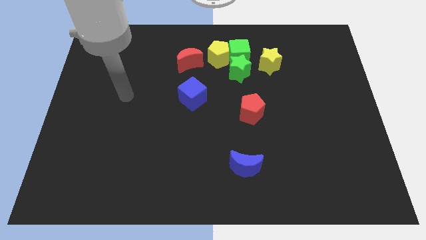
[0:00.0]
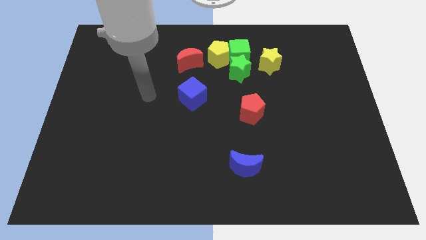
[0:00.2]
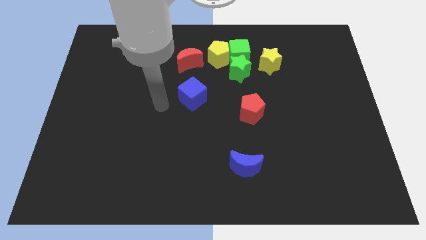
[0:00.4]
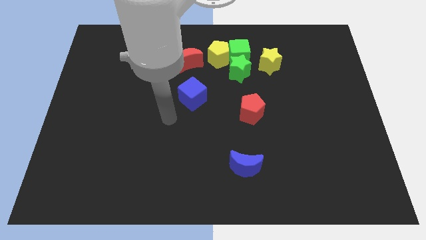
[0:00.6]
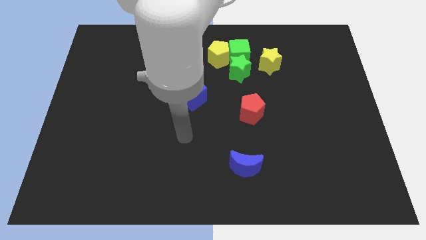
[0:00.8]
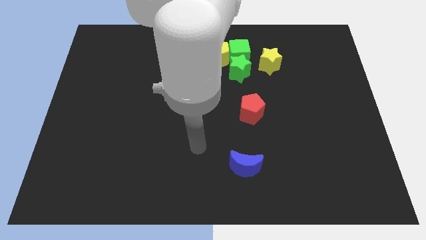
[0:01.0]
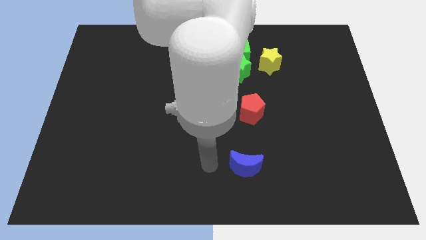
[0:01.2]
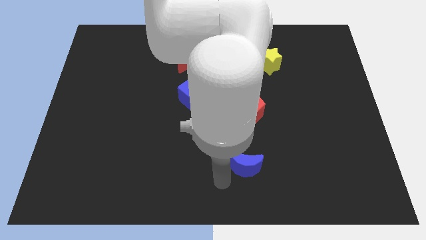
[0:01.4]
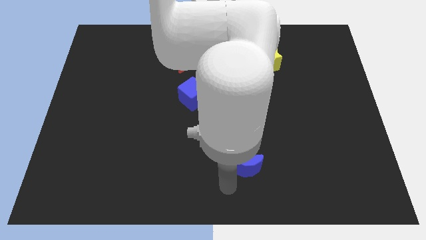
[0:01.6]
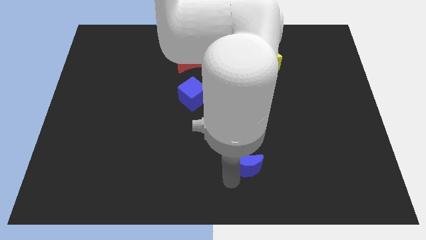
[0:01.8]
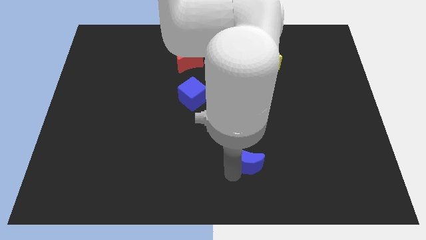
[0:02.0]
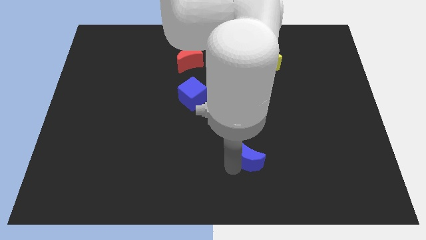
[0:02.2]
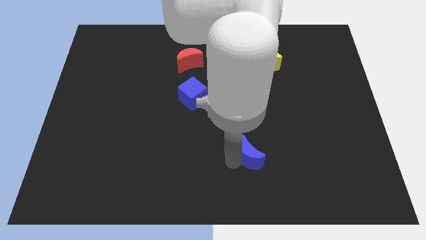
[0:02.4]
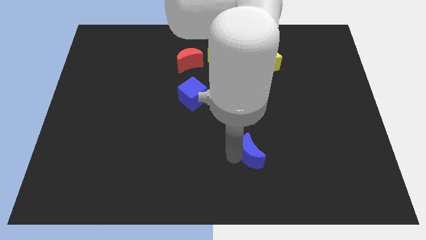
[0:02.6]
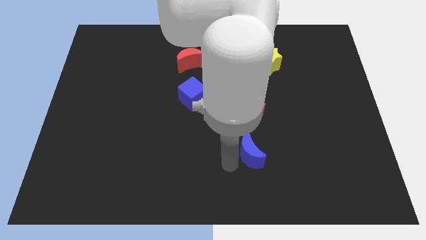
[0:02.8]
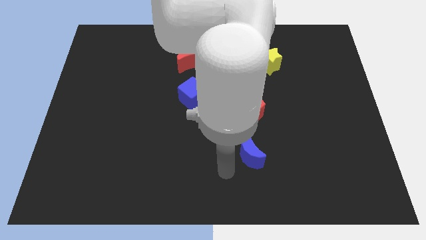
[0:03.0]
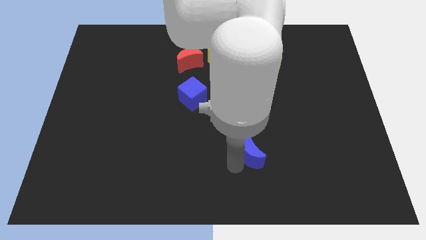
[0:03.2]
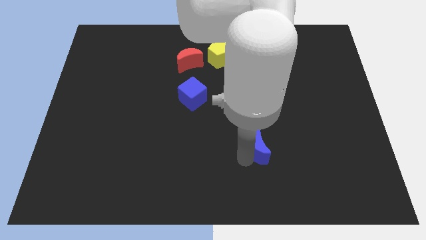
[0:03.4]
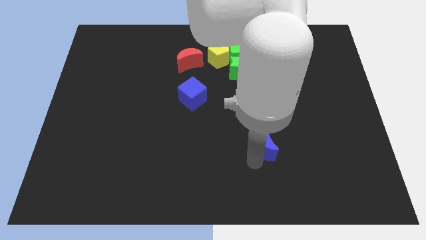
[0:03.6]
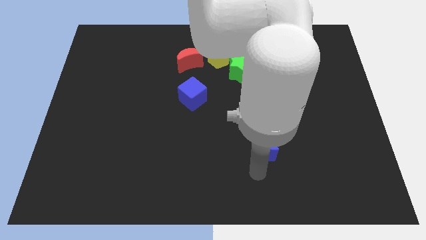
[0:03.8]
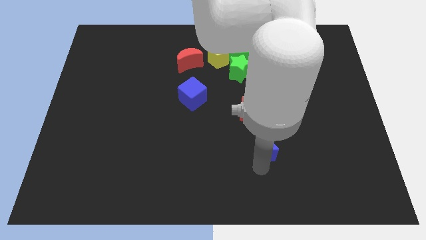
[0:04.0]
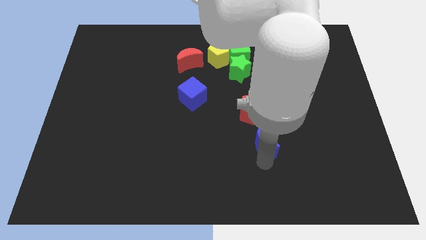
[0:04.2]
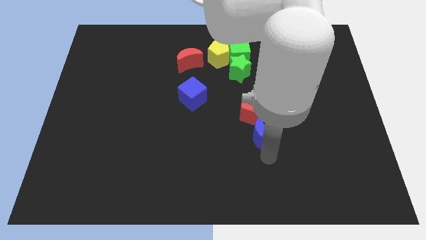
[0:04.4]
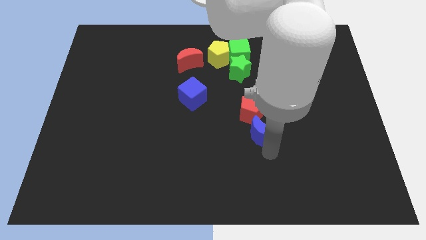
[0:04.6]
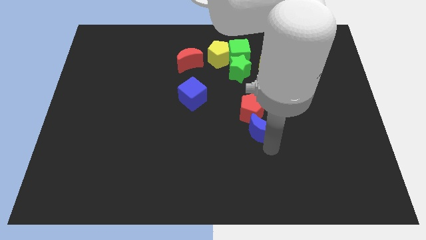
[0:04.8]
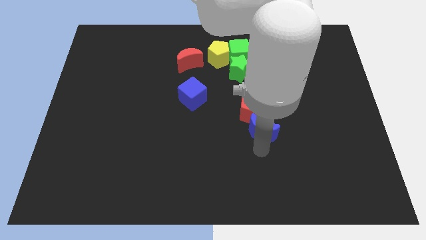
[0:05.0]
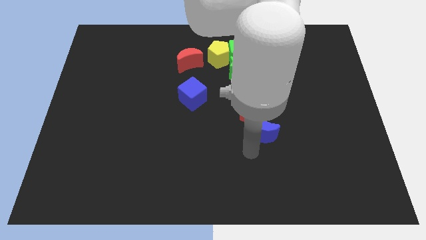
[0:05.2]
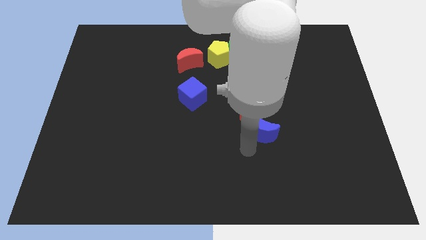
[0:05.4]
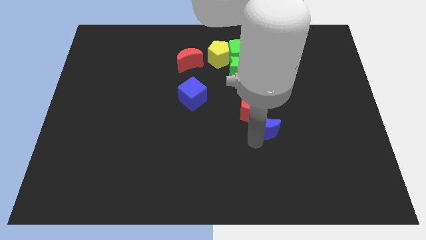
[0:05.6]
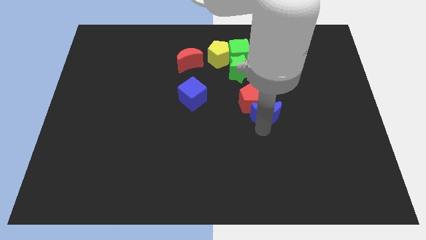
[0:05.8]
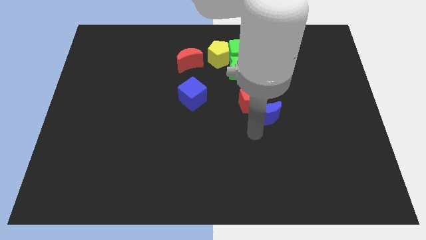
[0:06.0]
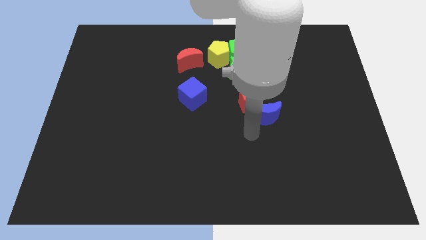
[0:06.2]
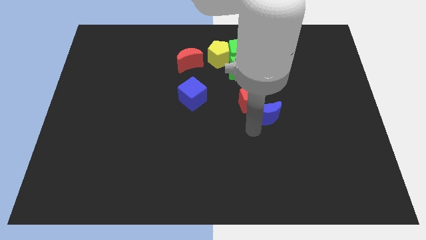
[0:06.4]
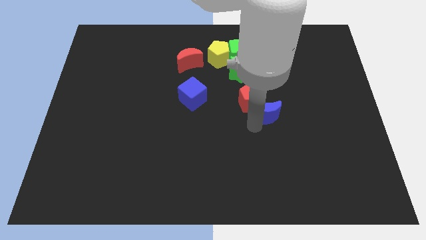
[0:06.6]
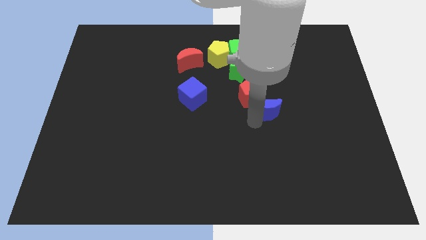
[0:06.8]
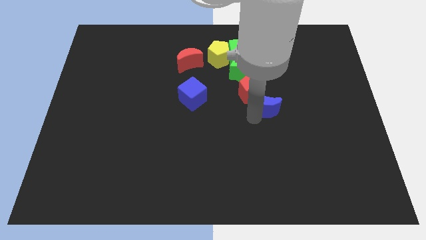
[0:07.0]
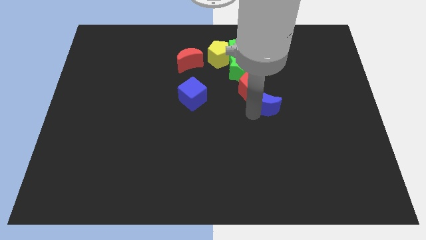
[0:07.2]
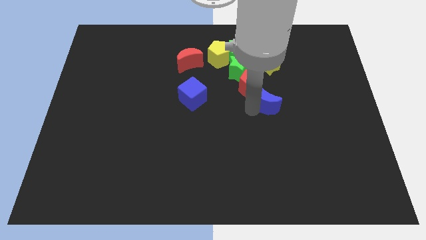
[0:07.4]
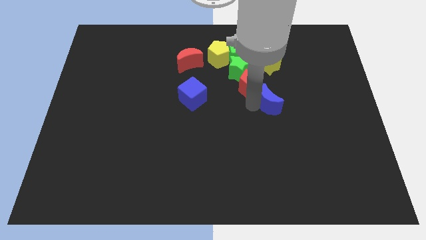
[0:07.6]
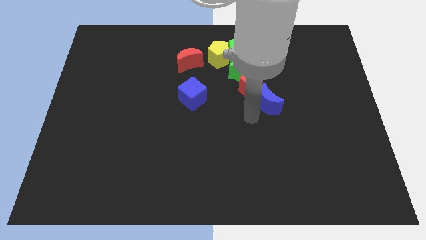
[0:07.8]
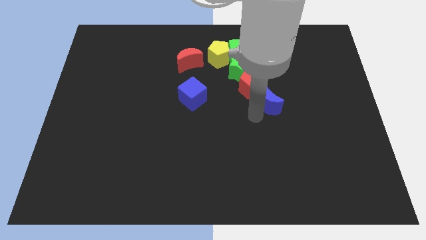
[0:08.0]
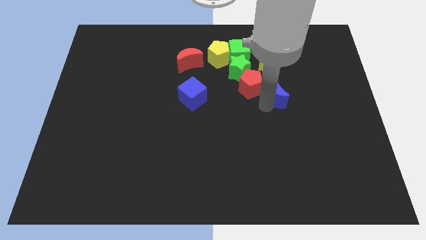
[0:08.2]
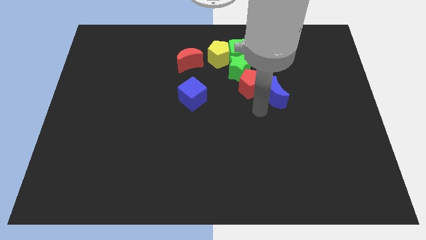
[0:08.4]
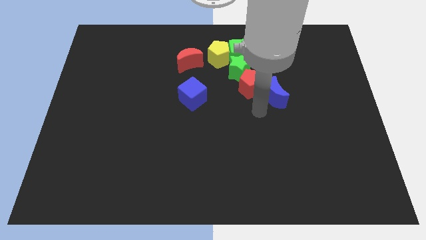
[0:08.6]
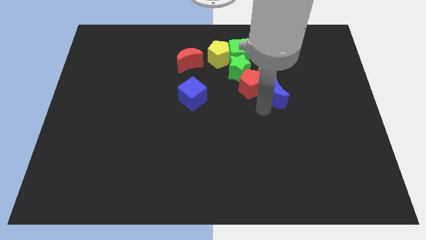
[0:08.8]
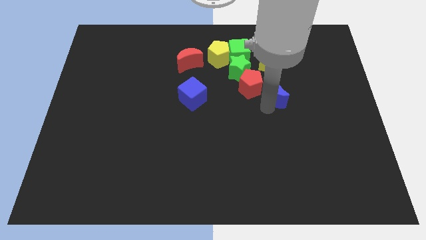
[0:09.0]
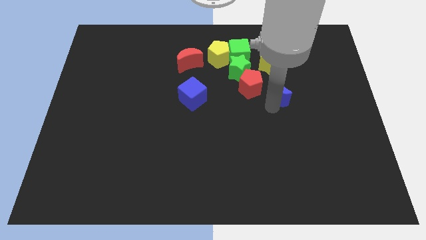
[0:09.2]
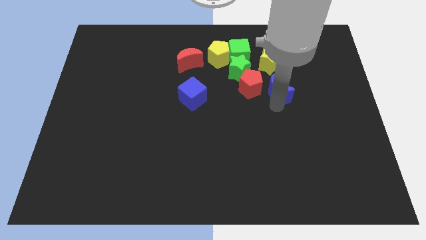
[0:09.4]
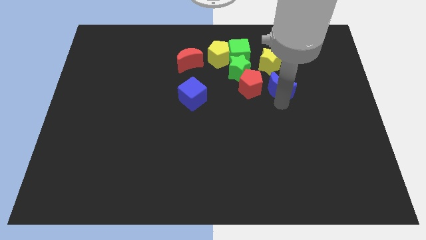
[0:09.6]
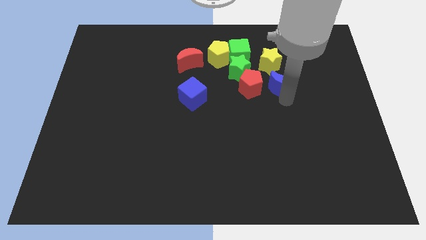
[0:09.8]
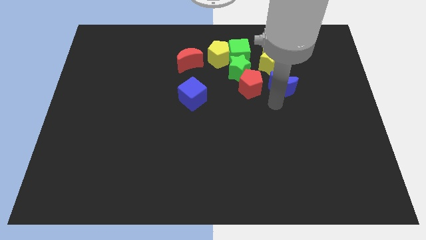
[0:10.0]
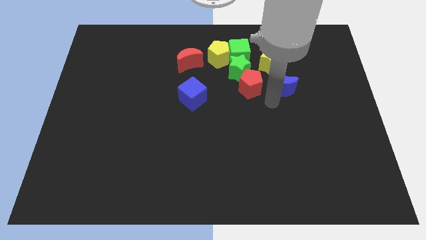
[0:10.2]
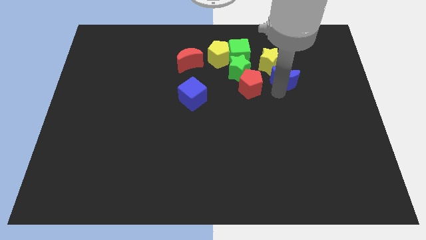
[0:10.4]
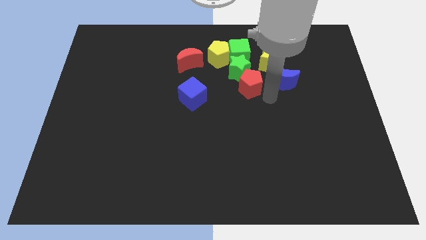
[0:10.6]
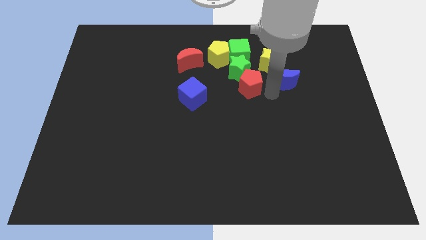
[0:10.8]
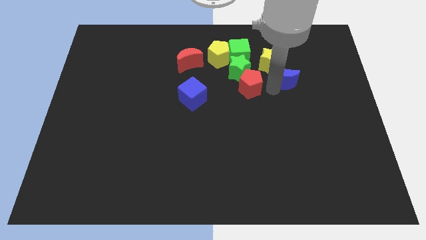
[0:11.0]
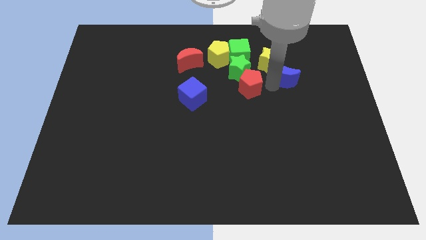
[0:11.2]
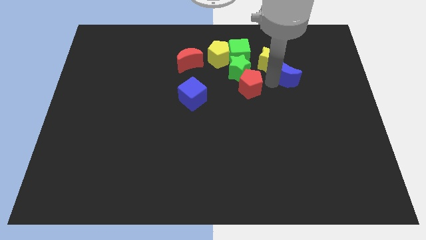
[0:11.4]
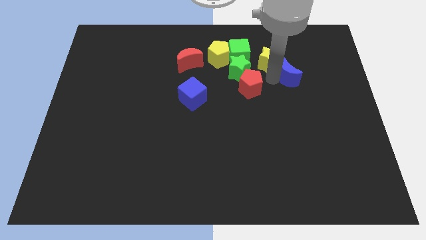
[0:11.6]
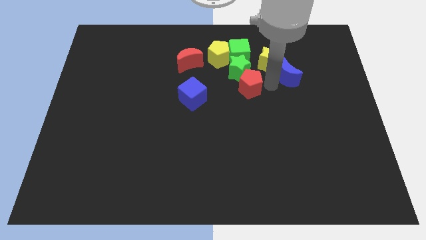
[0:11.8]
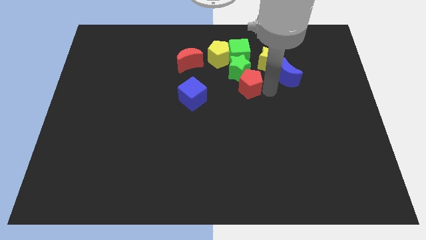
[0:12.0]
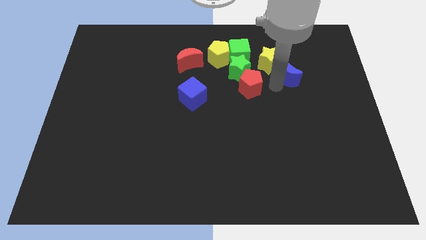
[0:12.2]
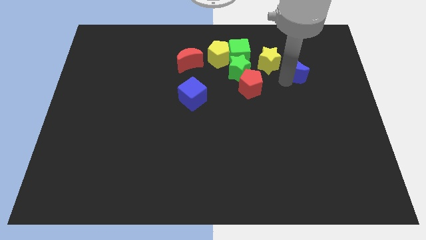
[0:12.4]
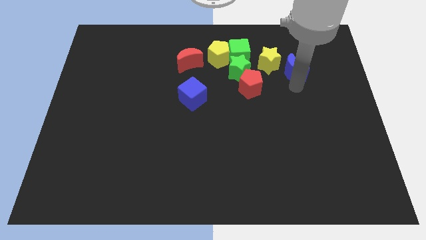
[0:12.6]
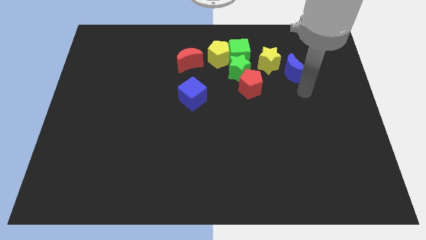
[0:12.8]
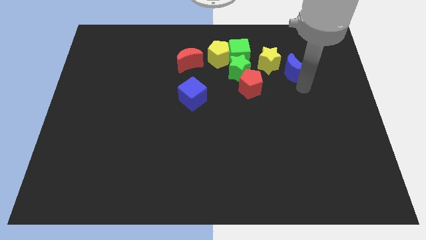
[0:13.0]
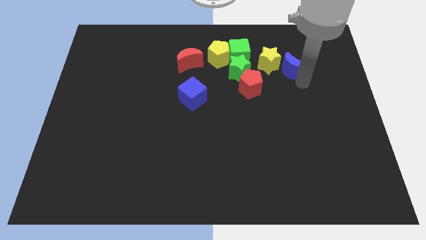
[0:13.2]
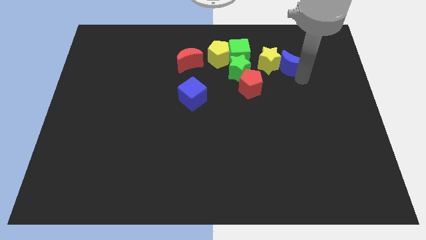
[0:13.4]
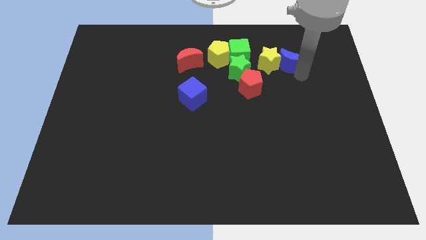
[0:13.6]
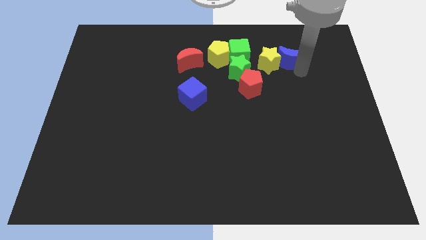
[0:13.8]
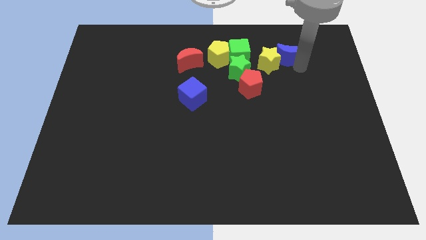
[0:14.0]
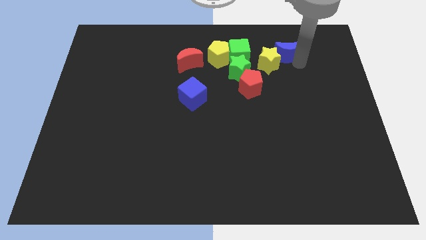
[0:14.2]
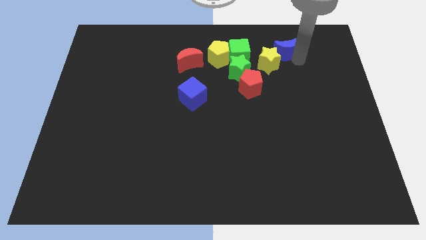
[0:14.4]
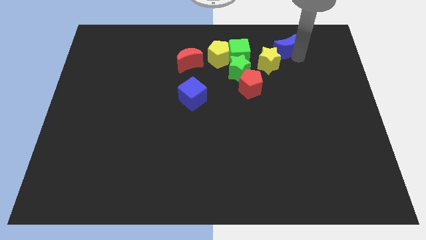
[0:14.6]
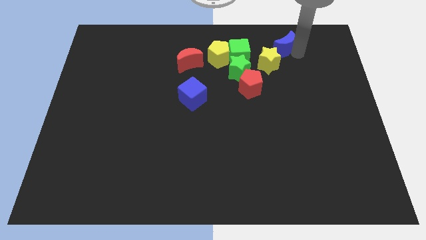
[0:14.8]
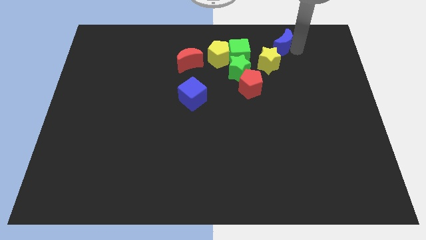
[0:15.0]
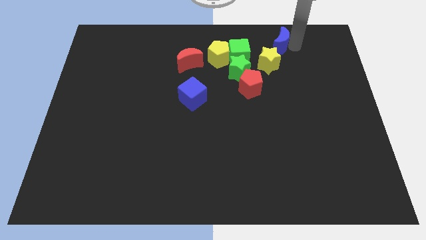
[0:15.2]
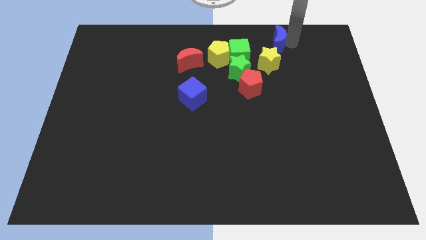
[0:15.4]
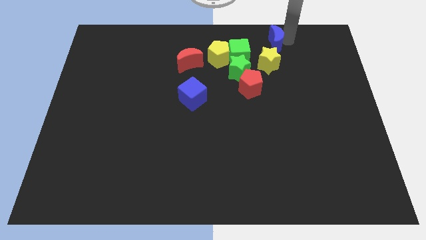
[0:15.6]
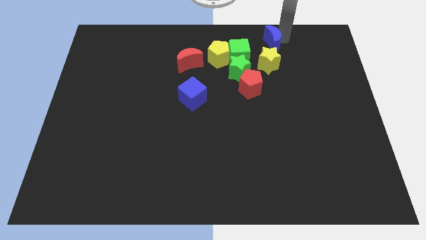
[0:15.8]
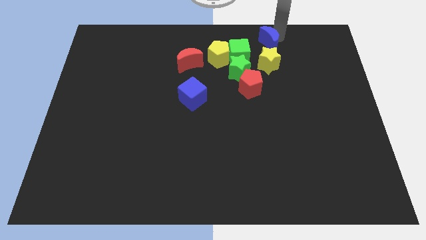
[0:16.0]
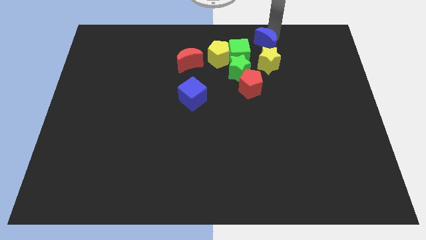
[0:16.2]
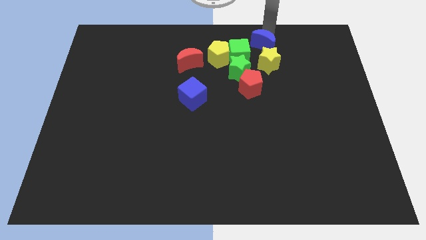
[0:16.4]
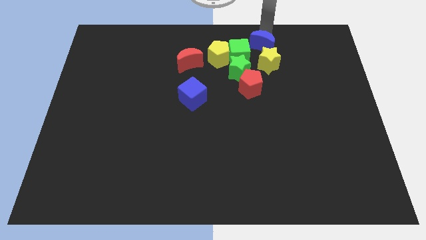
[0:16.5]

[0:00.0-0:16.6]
slide the blue moon to the right of the yellow pentagon
